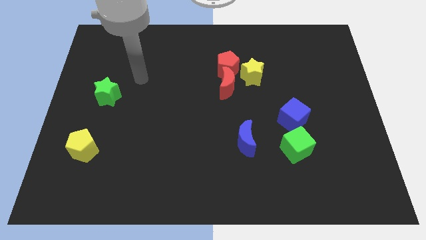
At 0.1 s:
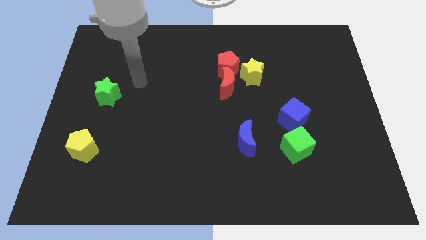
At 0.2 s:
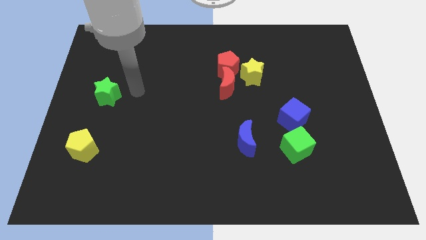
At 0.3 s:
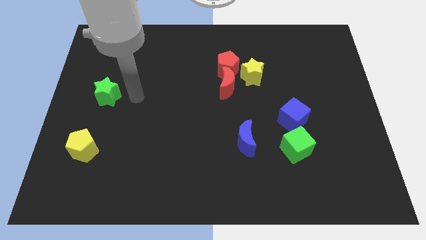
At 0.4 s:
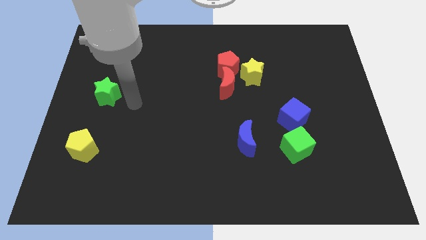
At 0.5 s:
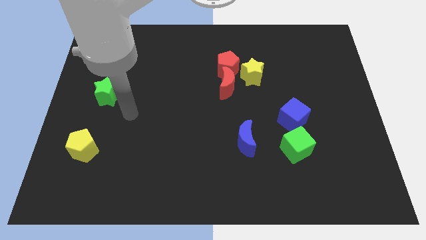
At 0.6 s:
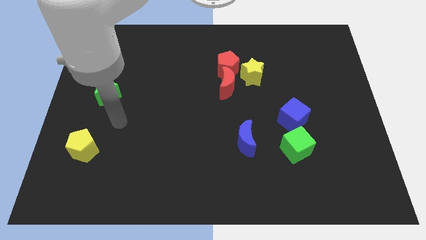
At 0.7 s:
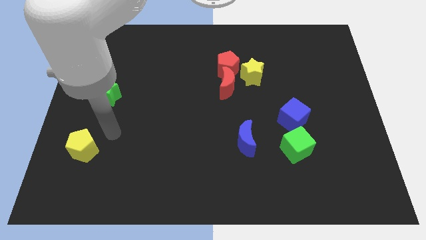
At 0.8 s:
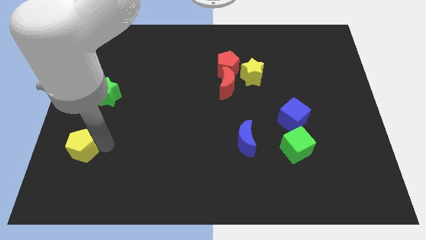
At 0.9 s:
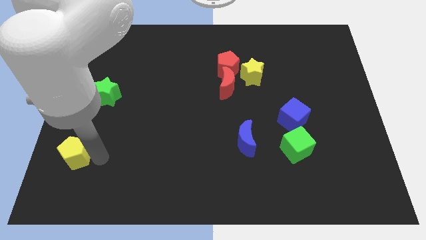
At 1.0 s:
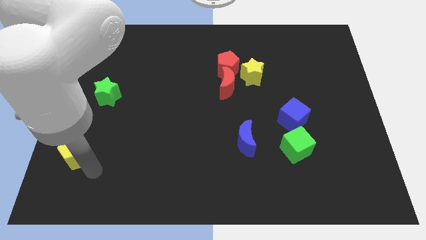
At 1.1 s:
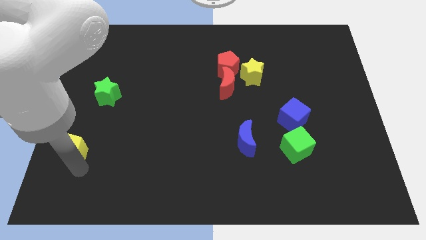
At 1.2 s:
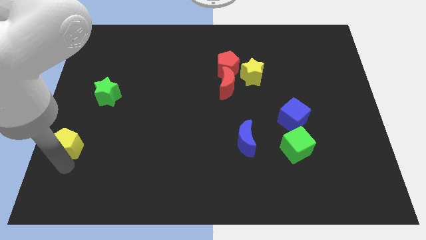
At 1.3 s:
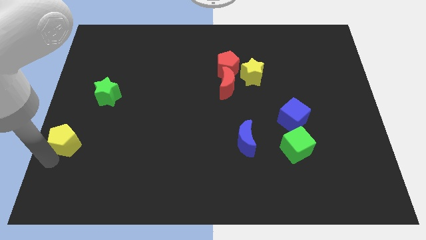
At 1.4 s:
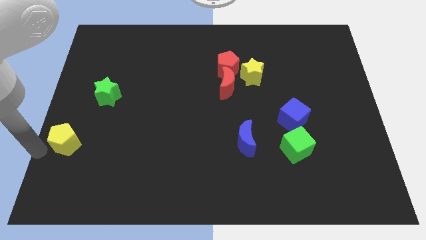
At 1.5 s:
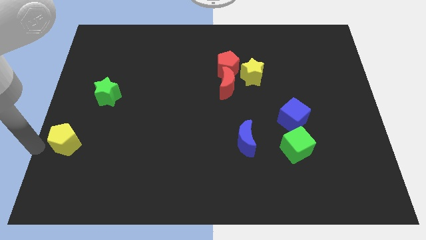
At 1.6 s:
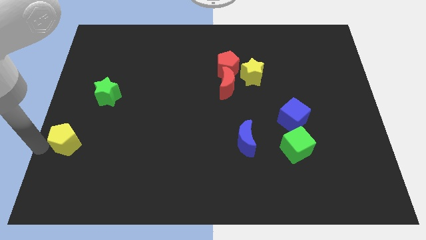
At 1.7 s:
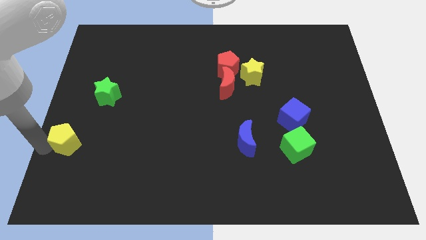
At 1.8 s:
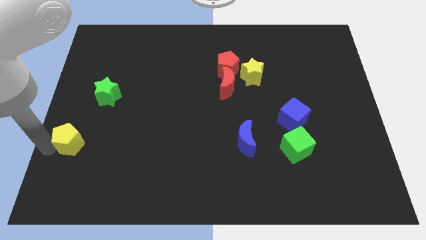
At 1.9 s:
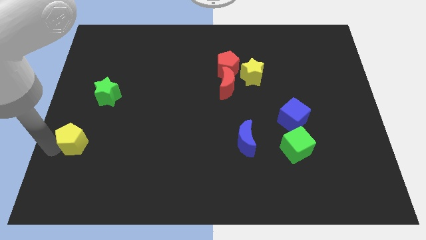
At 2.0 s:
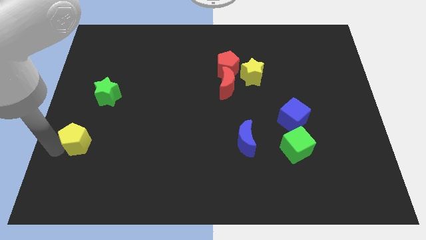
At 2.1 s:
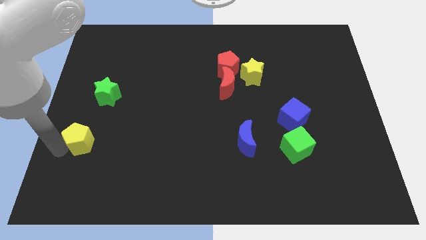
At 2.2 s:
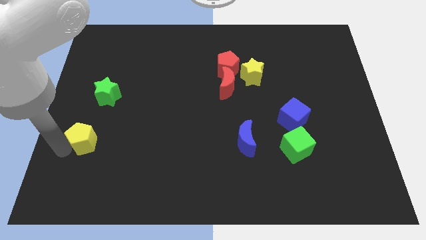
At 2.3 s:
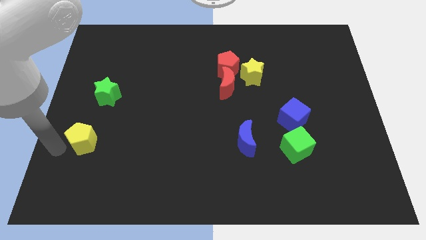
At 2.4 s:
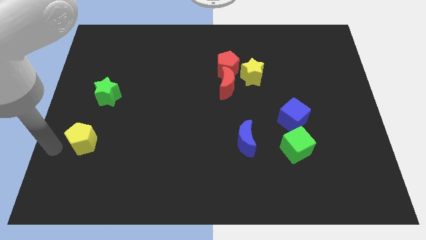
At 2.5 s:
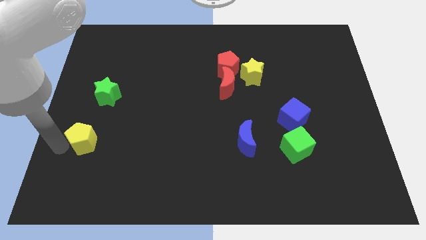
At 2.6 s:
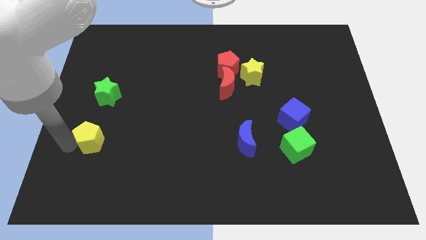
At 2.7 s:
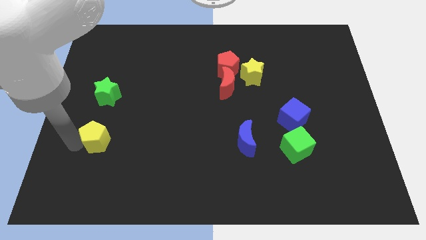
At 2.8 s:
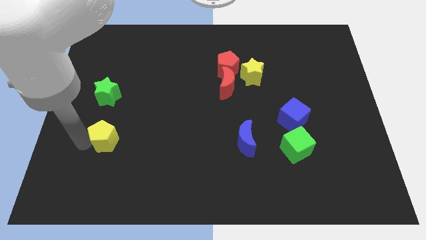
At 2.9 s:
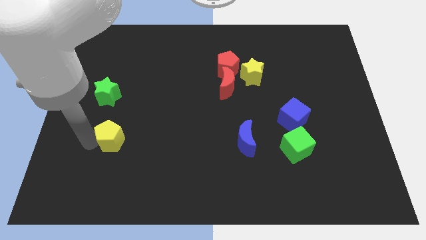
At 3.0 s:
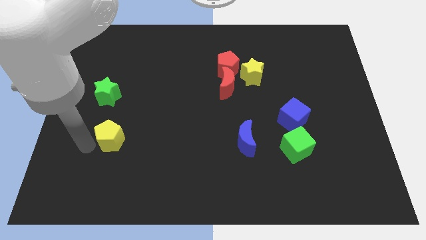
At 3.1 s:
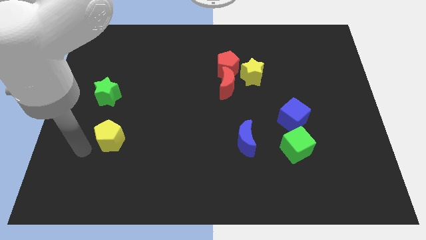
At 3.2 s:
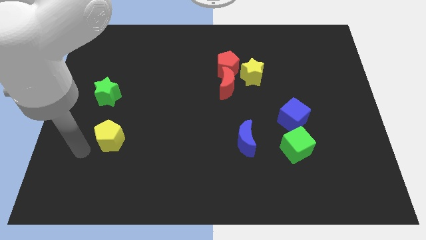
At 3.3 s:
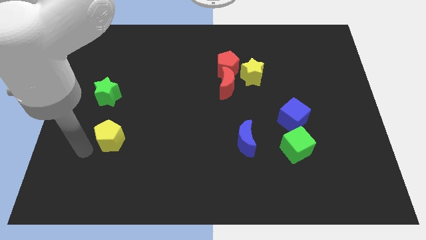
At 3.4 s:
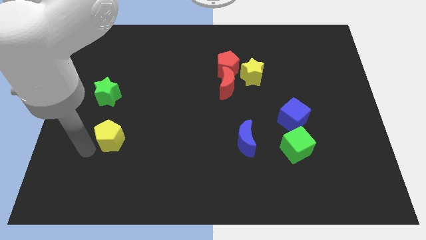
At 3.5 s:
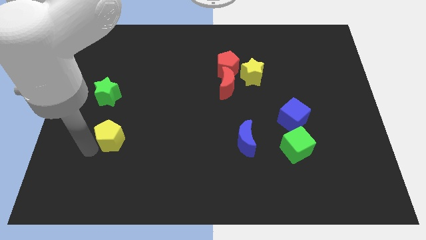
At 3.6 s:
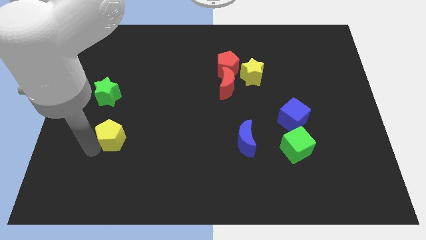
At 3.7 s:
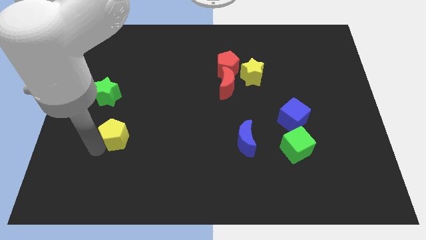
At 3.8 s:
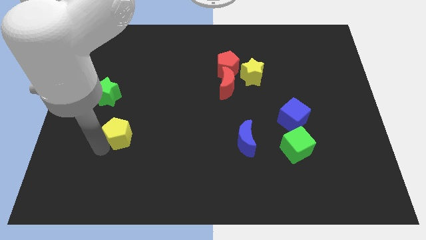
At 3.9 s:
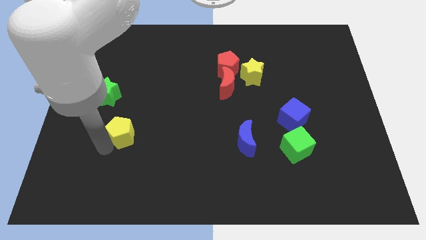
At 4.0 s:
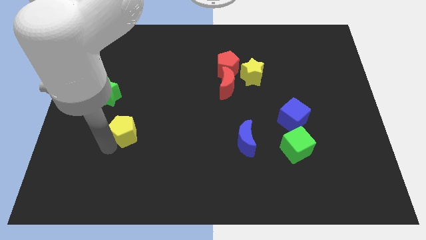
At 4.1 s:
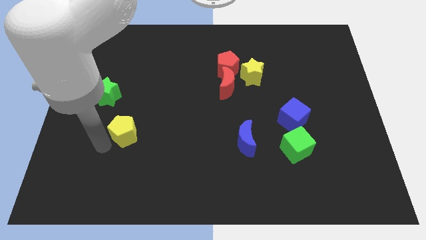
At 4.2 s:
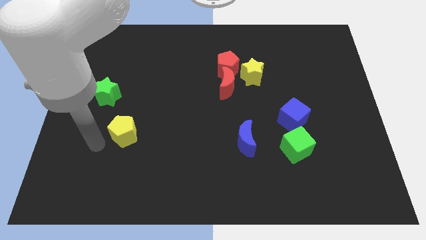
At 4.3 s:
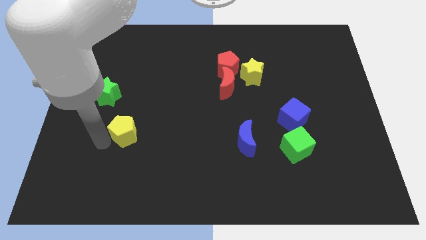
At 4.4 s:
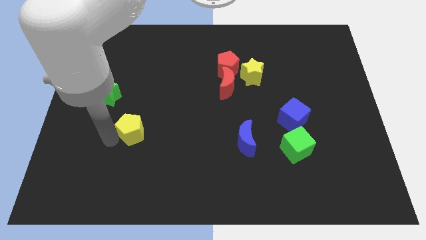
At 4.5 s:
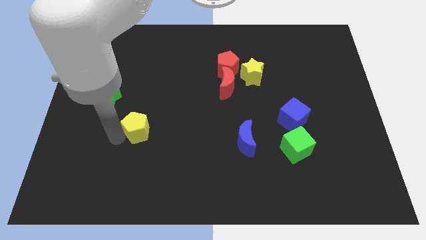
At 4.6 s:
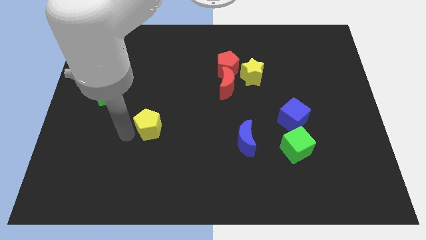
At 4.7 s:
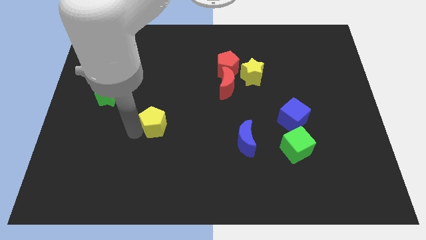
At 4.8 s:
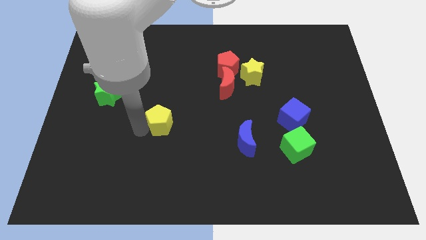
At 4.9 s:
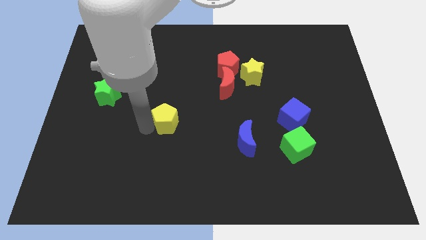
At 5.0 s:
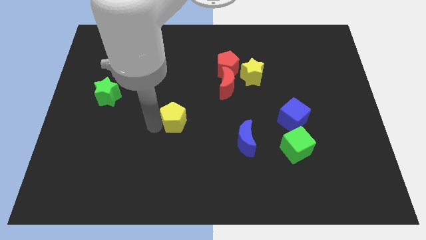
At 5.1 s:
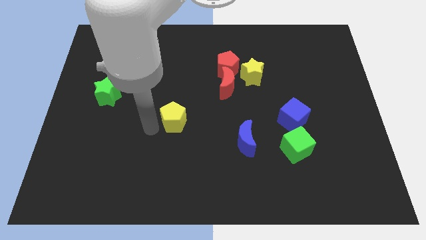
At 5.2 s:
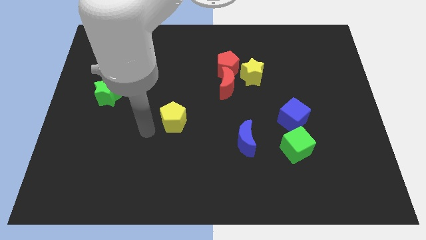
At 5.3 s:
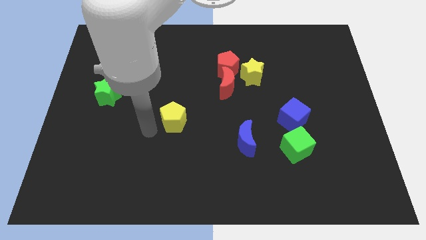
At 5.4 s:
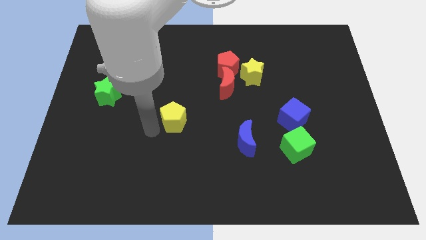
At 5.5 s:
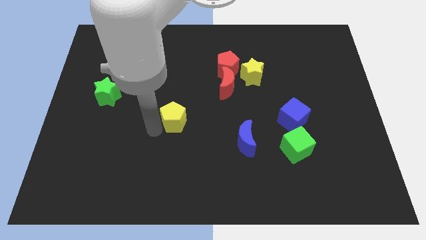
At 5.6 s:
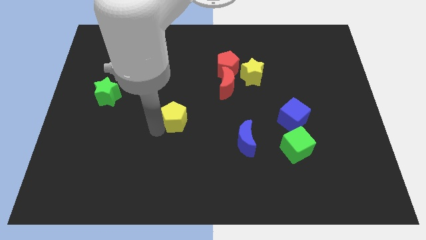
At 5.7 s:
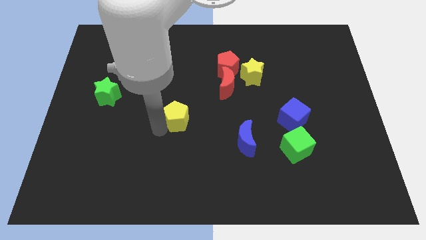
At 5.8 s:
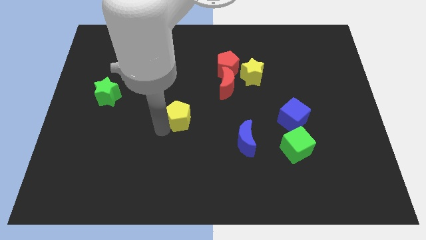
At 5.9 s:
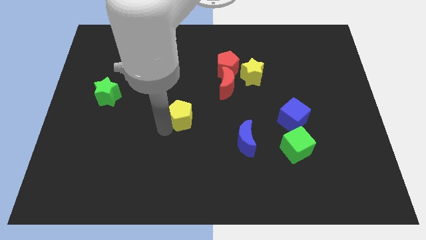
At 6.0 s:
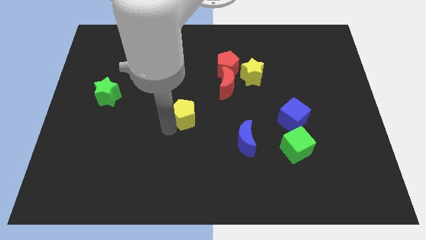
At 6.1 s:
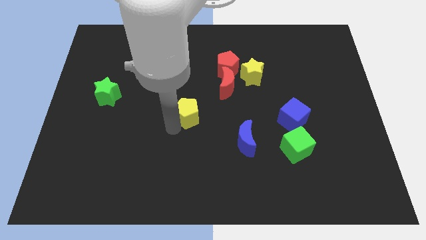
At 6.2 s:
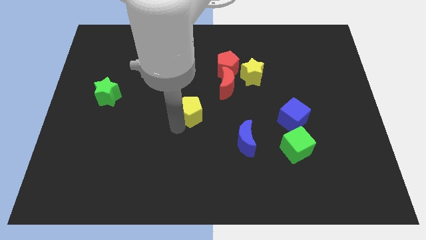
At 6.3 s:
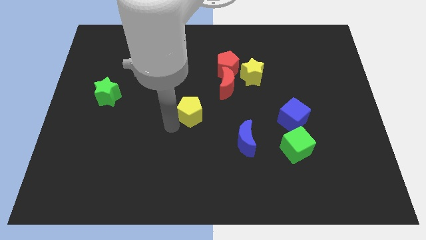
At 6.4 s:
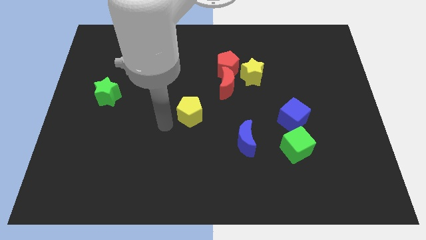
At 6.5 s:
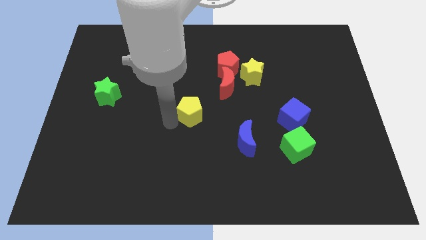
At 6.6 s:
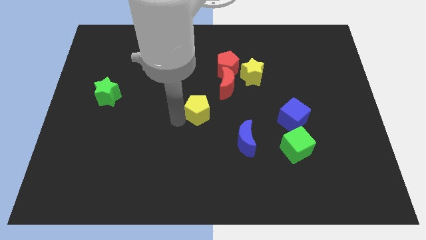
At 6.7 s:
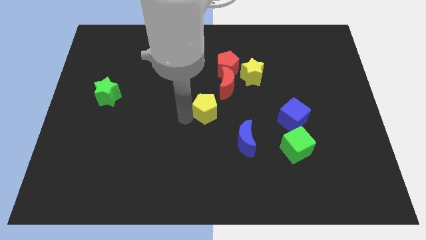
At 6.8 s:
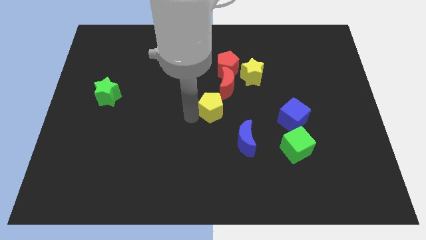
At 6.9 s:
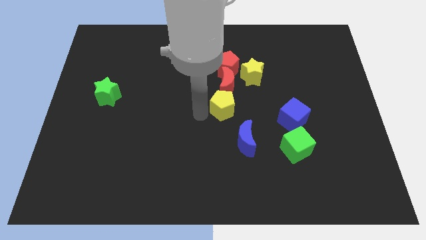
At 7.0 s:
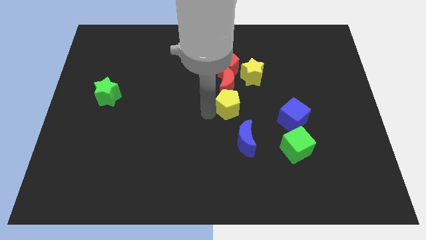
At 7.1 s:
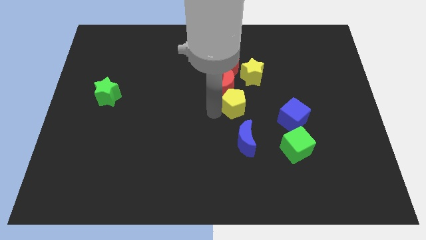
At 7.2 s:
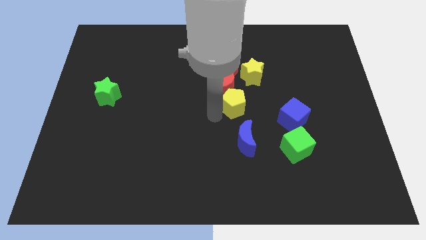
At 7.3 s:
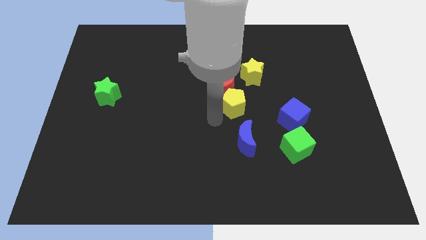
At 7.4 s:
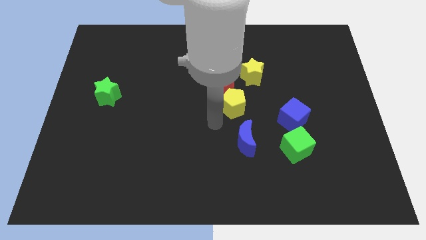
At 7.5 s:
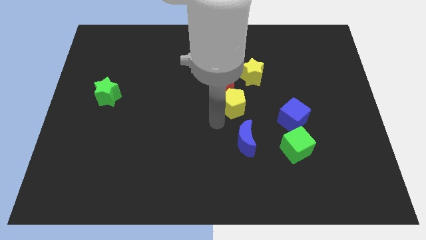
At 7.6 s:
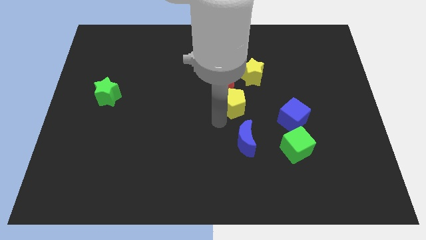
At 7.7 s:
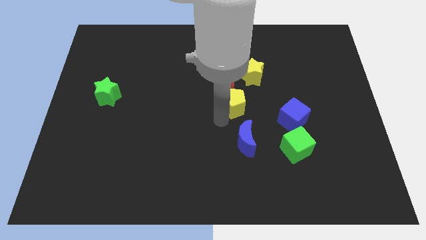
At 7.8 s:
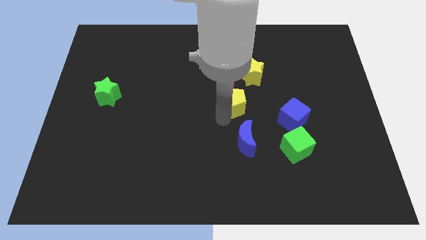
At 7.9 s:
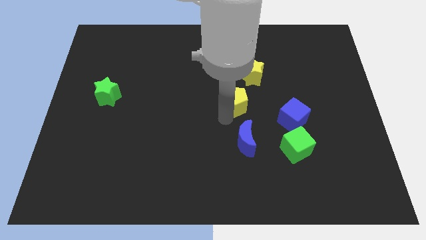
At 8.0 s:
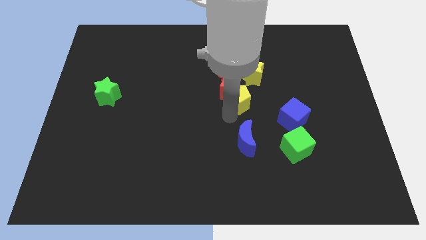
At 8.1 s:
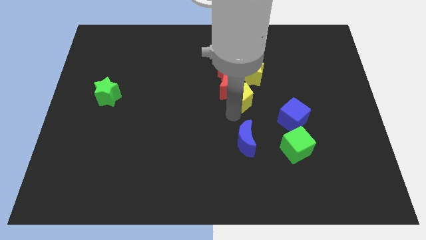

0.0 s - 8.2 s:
put the yellow pentagon to the right of the red moon
